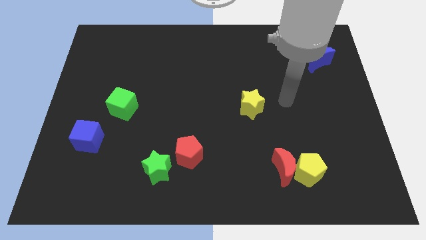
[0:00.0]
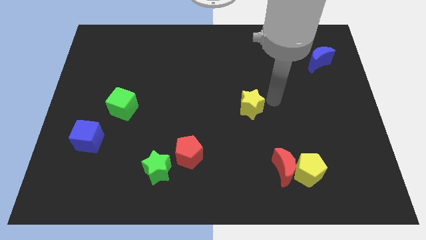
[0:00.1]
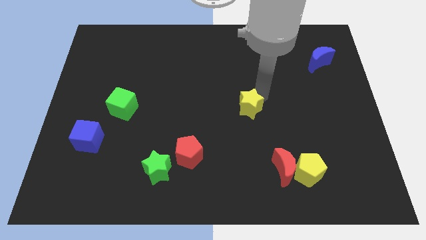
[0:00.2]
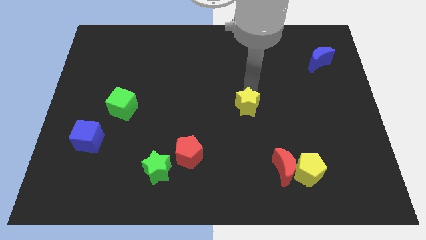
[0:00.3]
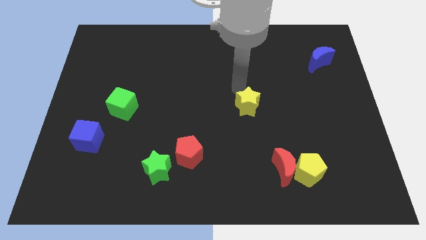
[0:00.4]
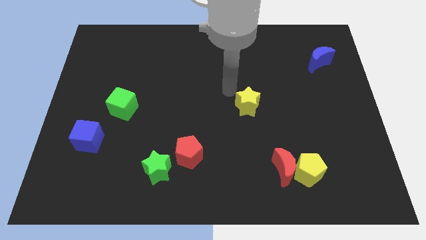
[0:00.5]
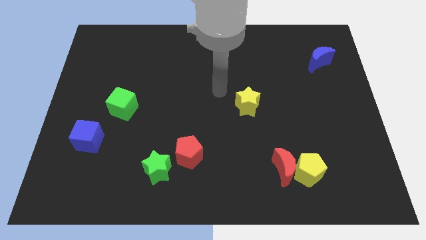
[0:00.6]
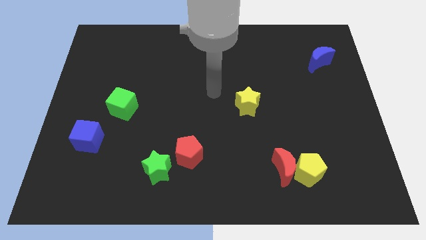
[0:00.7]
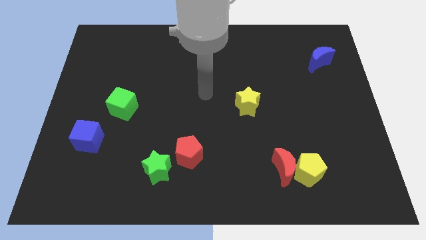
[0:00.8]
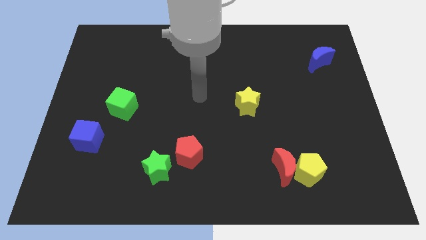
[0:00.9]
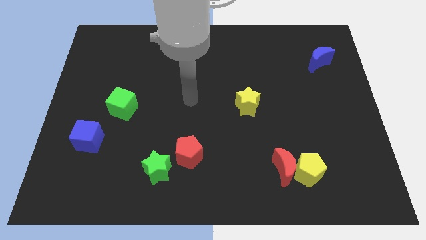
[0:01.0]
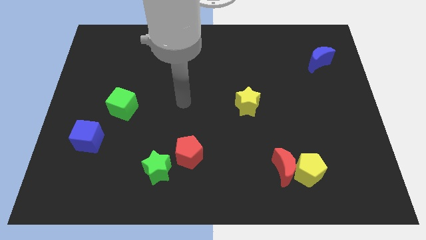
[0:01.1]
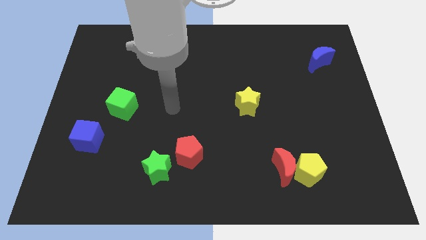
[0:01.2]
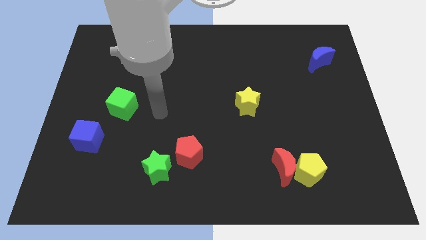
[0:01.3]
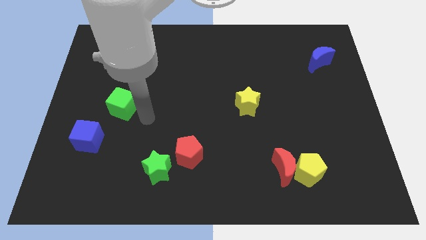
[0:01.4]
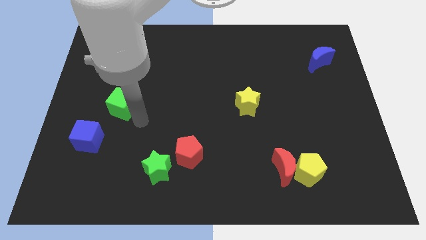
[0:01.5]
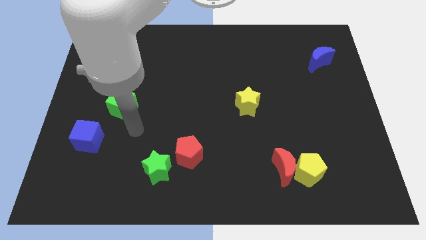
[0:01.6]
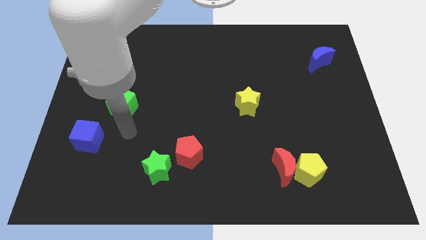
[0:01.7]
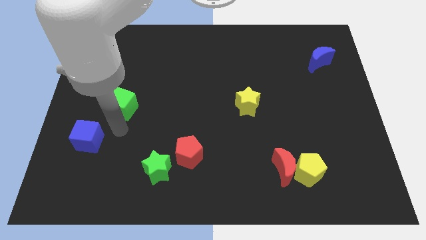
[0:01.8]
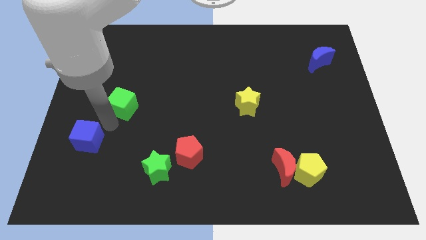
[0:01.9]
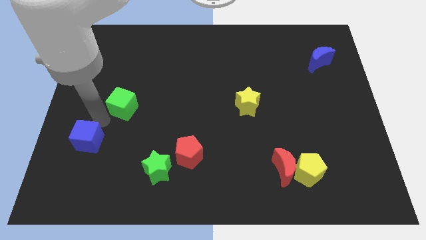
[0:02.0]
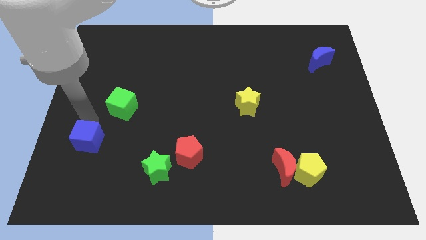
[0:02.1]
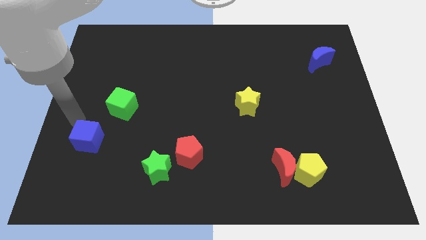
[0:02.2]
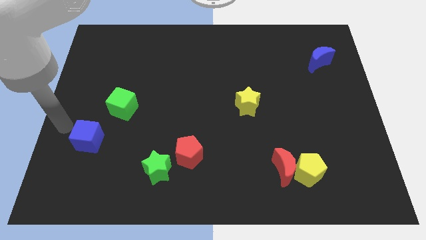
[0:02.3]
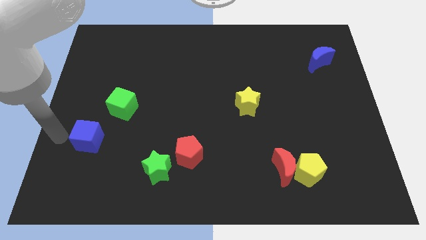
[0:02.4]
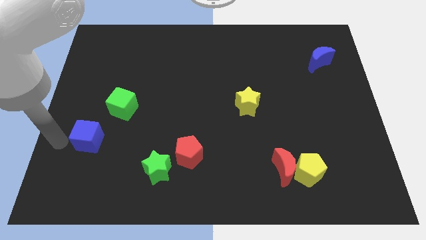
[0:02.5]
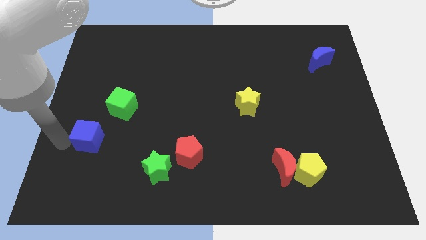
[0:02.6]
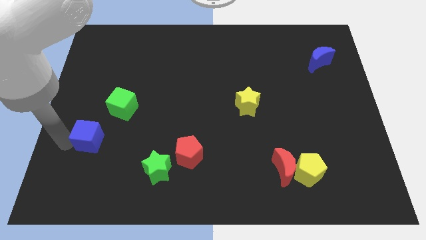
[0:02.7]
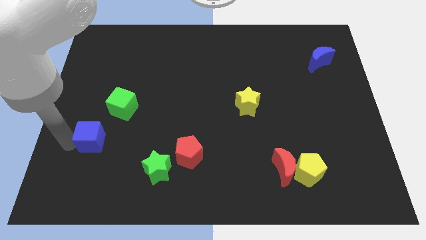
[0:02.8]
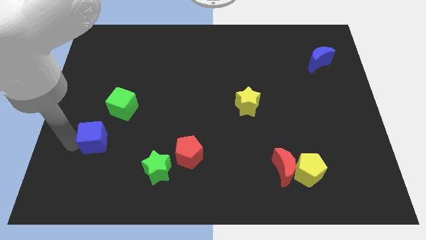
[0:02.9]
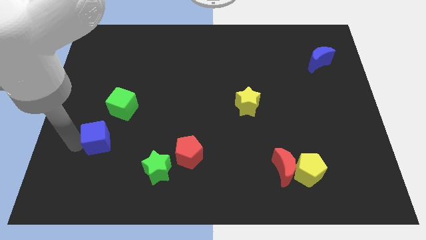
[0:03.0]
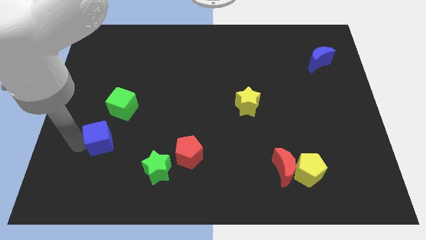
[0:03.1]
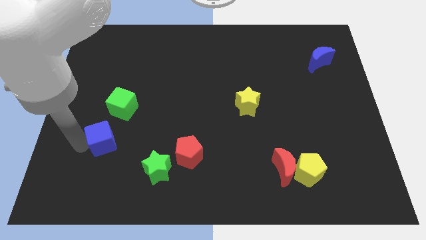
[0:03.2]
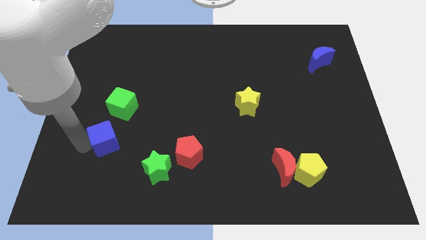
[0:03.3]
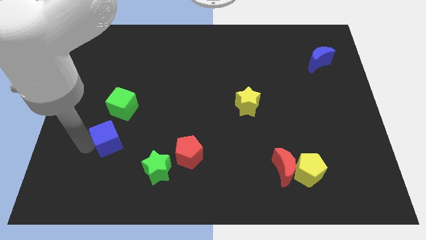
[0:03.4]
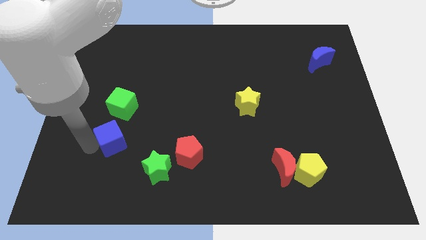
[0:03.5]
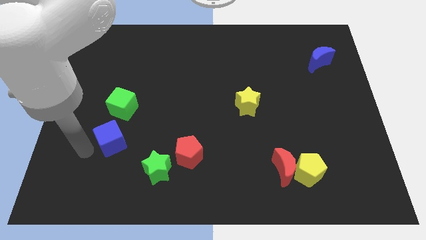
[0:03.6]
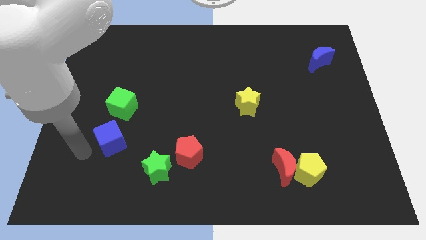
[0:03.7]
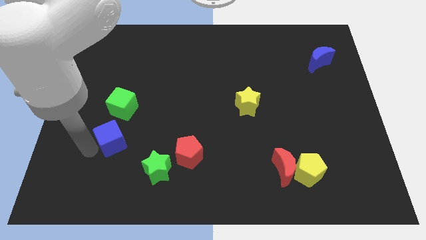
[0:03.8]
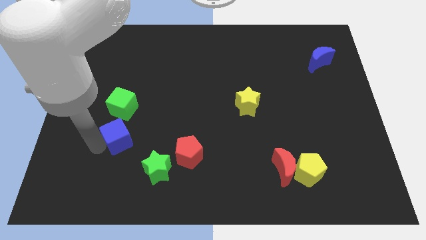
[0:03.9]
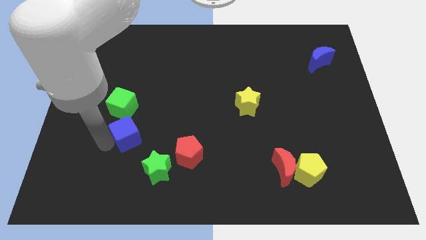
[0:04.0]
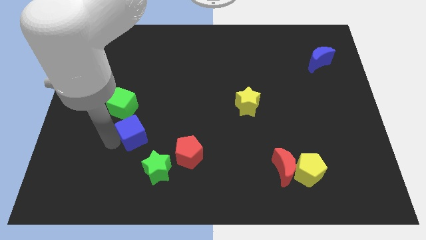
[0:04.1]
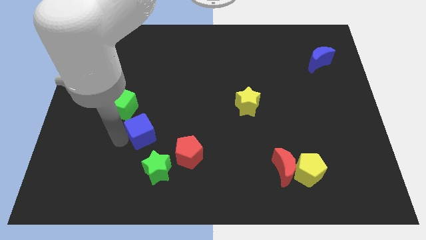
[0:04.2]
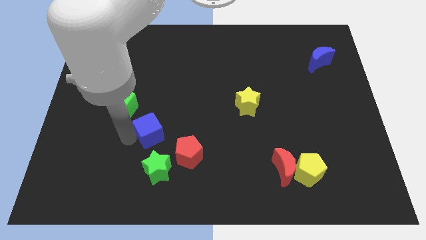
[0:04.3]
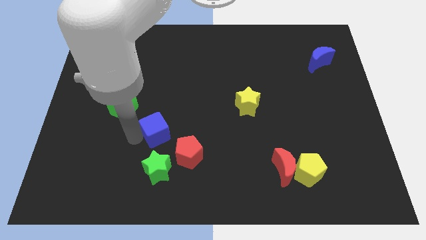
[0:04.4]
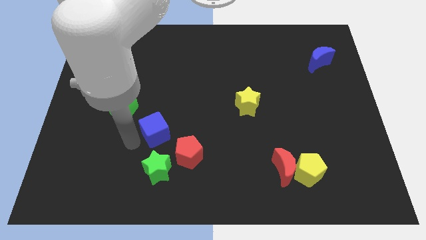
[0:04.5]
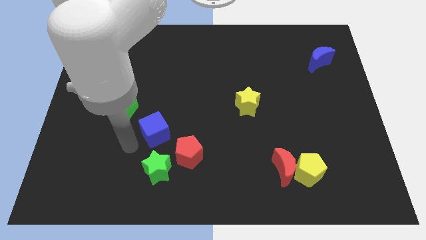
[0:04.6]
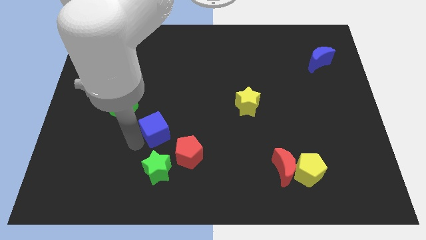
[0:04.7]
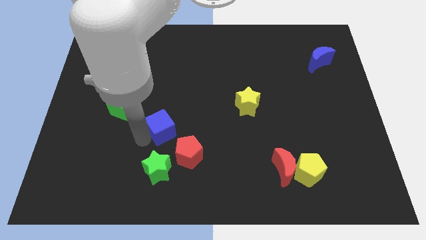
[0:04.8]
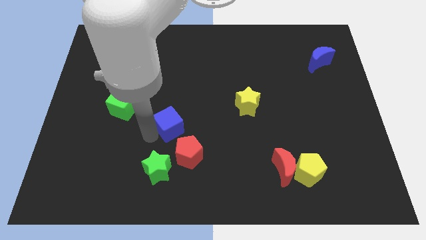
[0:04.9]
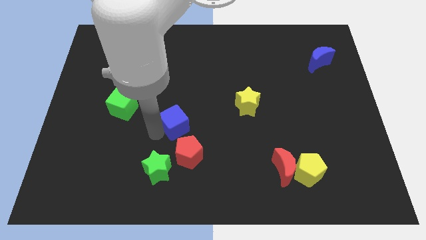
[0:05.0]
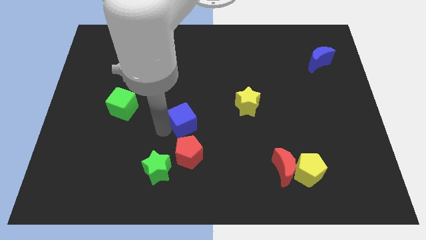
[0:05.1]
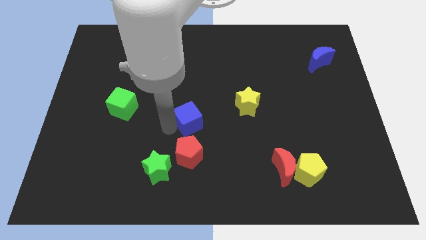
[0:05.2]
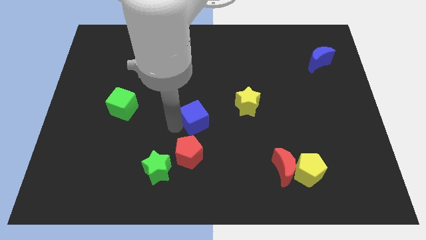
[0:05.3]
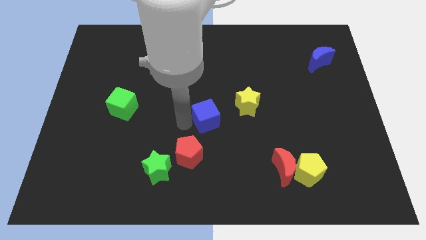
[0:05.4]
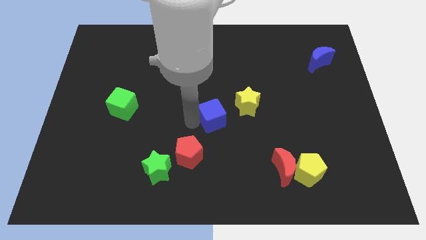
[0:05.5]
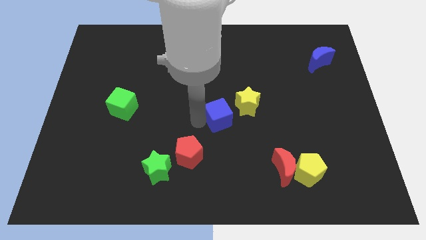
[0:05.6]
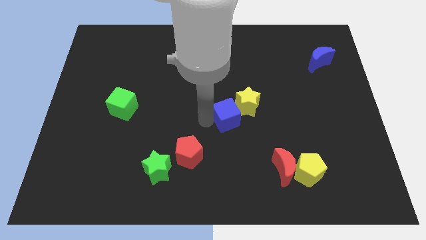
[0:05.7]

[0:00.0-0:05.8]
move the blue cube towards the yellow star

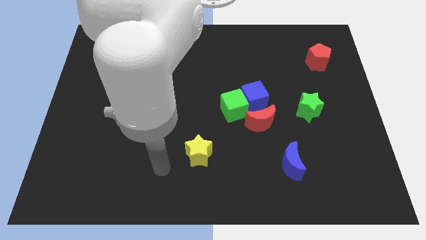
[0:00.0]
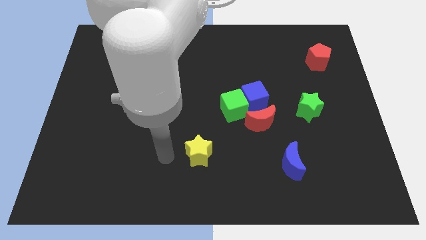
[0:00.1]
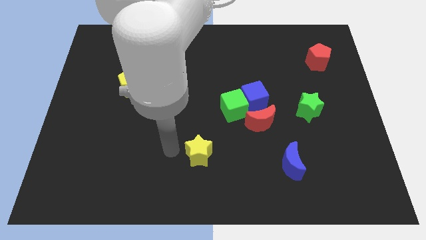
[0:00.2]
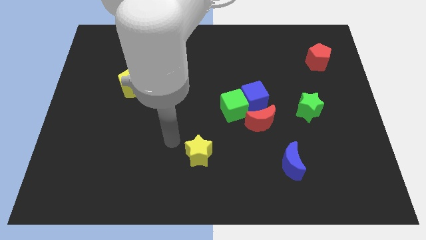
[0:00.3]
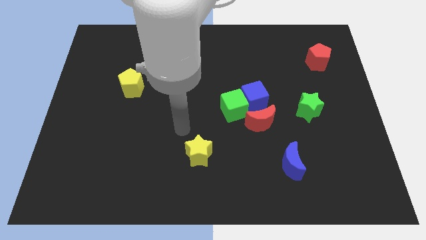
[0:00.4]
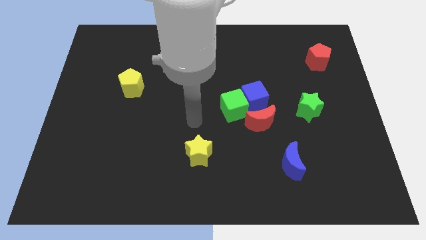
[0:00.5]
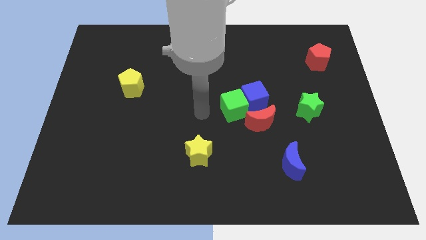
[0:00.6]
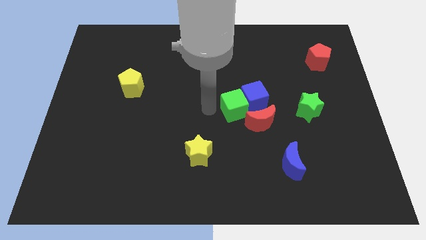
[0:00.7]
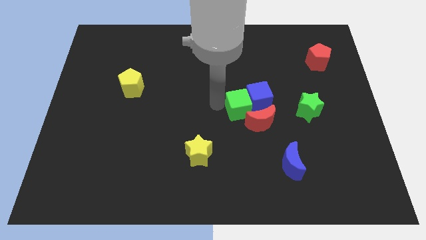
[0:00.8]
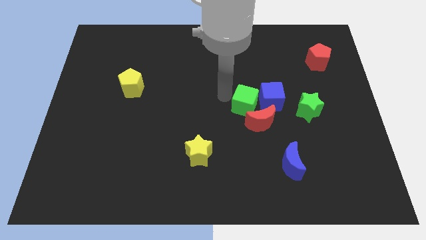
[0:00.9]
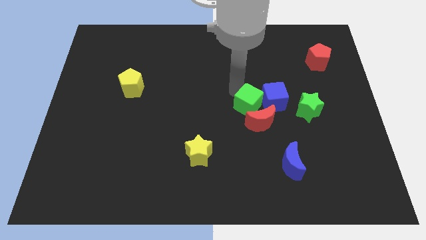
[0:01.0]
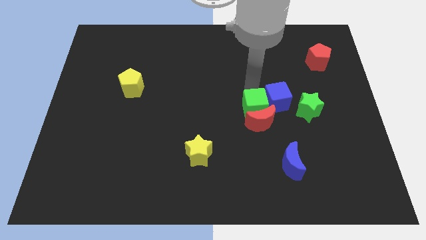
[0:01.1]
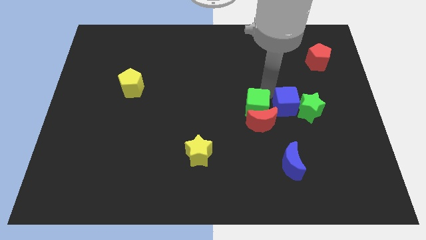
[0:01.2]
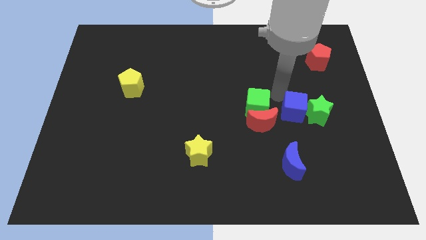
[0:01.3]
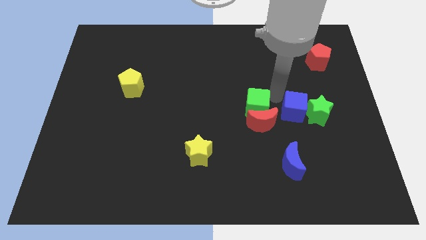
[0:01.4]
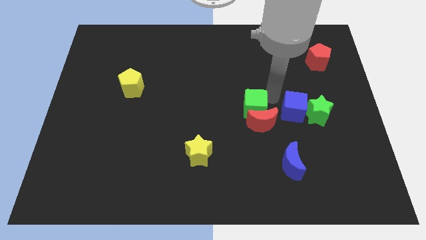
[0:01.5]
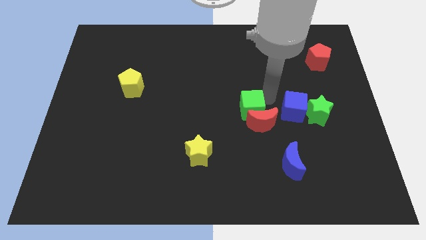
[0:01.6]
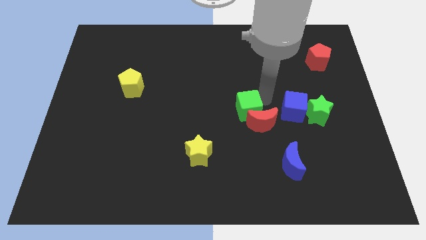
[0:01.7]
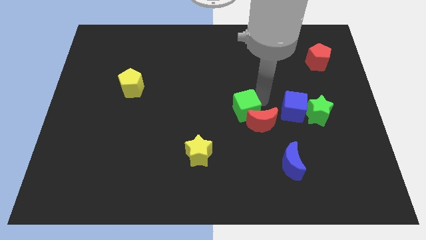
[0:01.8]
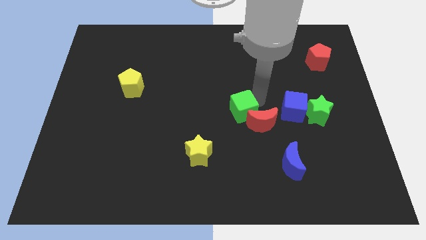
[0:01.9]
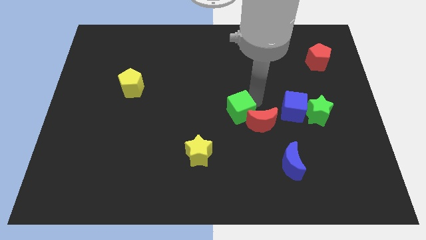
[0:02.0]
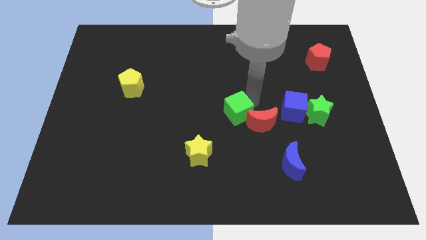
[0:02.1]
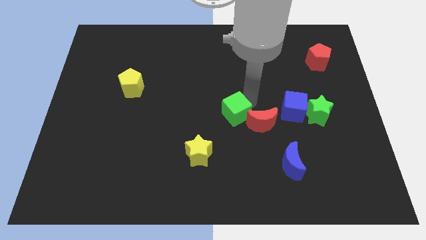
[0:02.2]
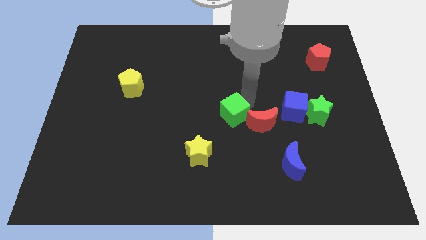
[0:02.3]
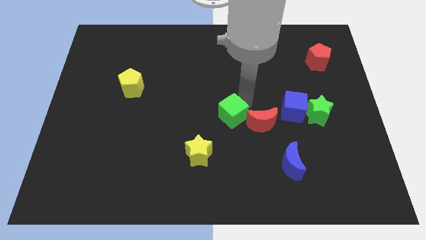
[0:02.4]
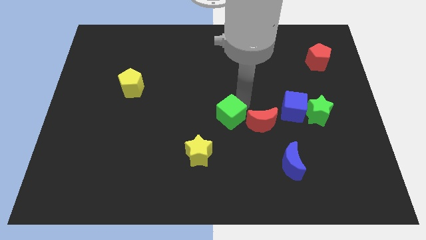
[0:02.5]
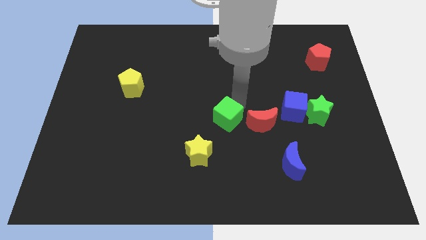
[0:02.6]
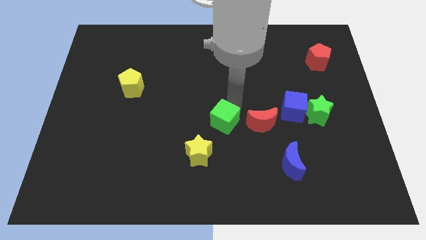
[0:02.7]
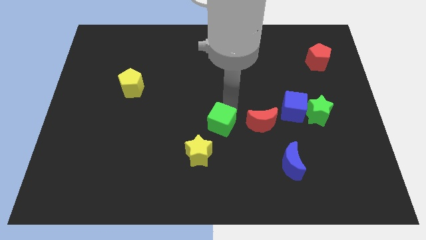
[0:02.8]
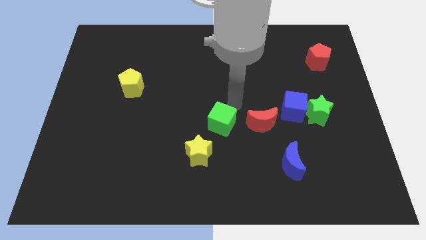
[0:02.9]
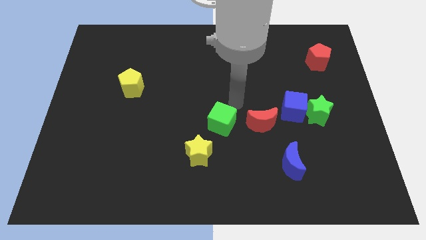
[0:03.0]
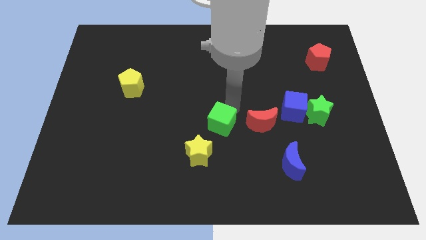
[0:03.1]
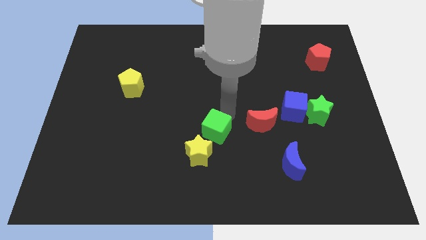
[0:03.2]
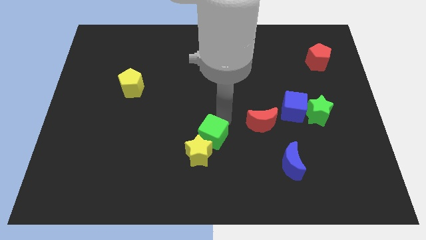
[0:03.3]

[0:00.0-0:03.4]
move the green cube close to the yellow star
